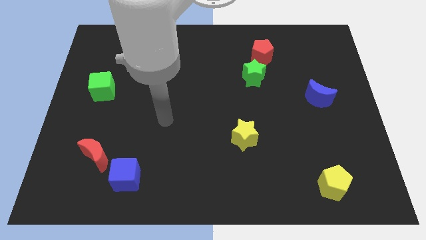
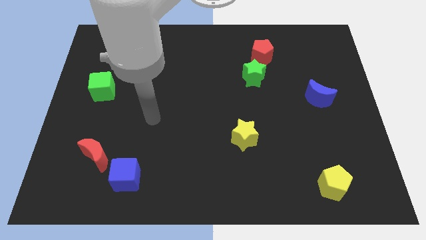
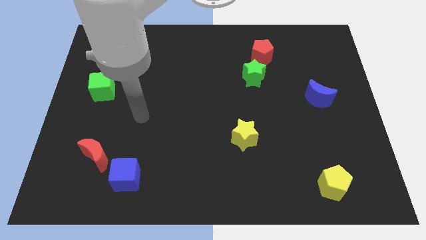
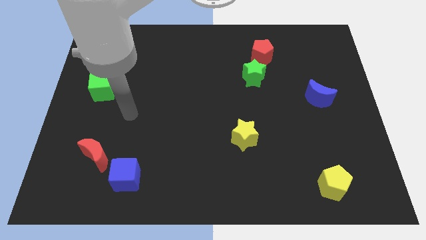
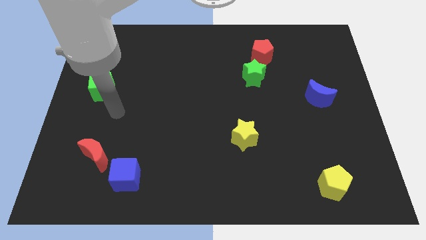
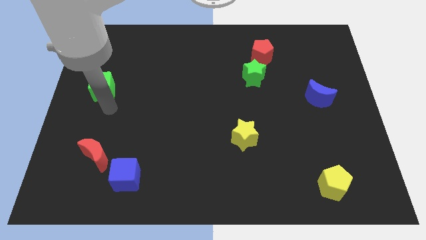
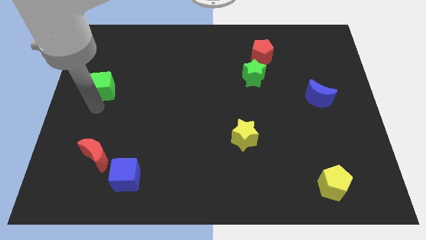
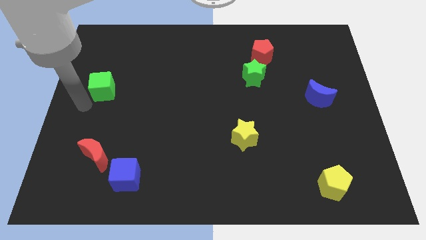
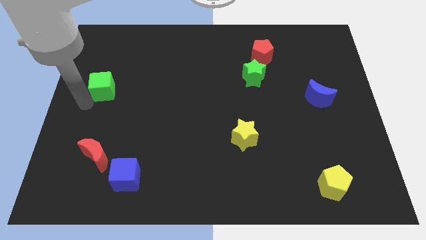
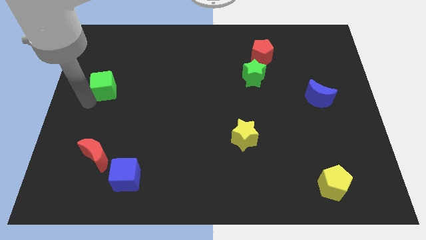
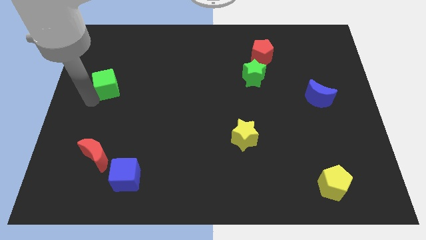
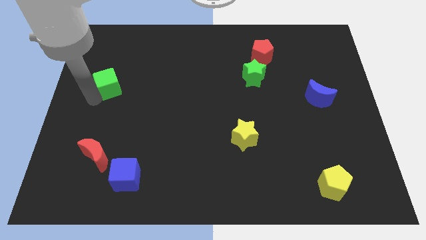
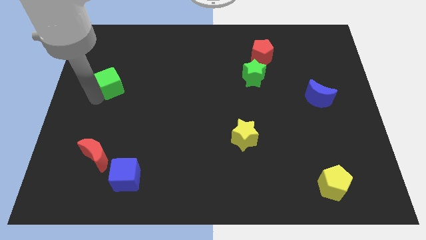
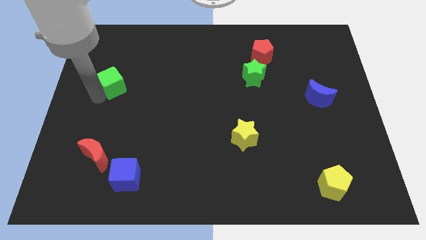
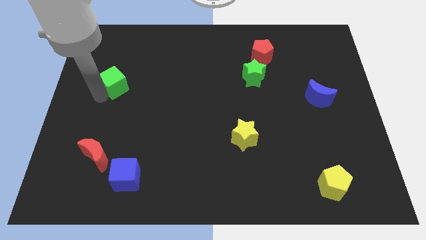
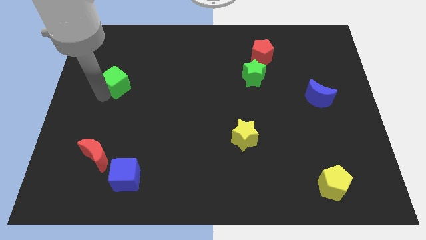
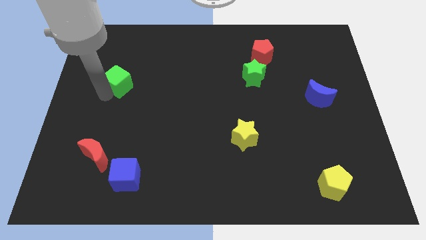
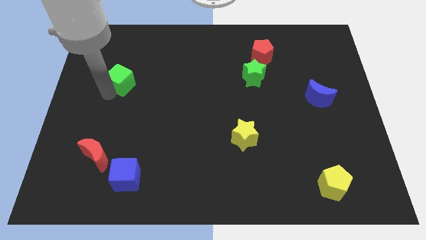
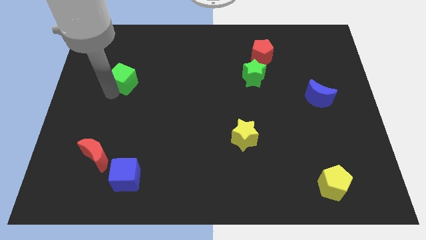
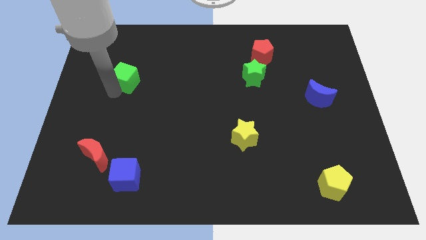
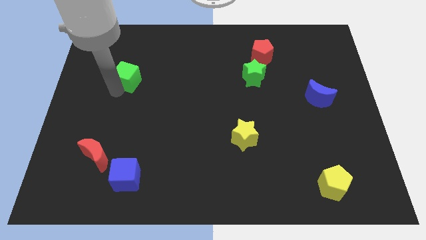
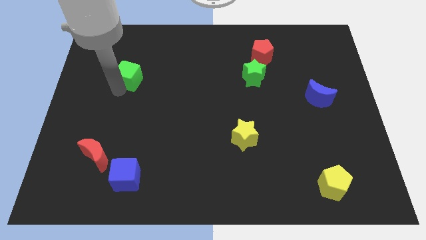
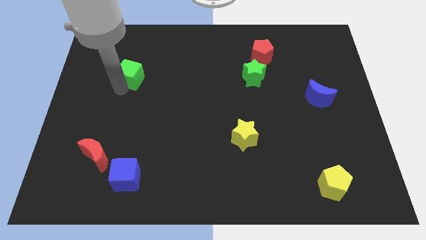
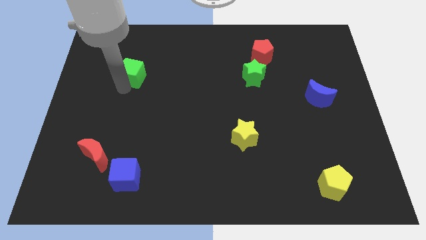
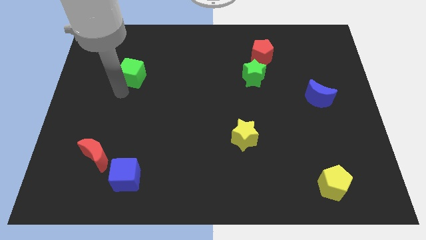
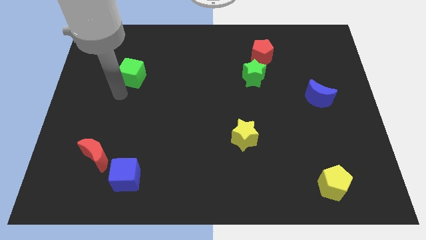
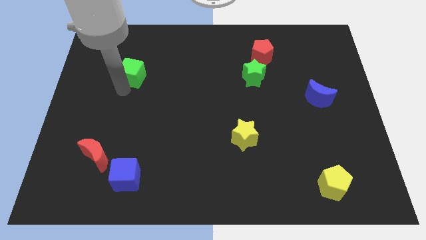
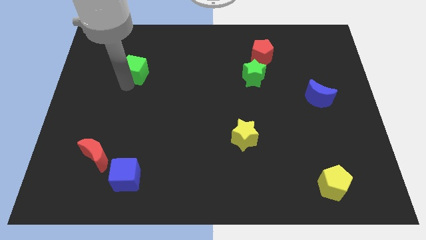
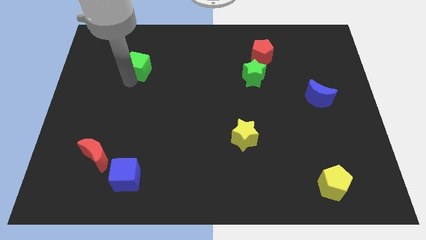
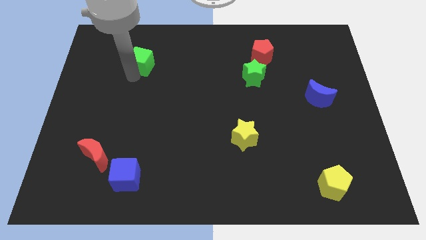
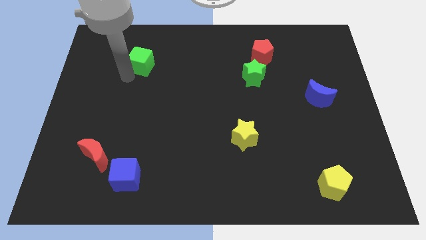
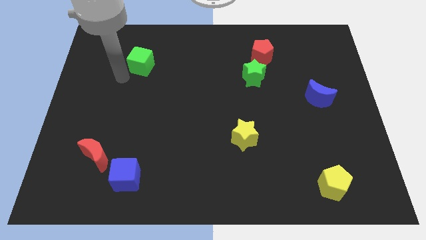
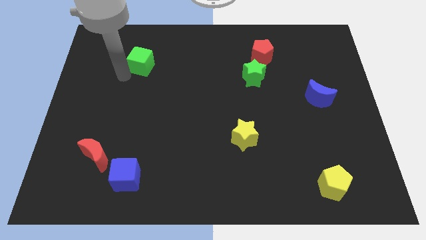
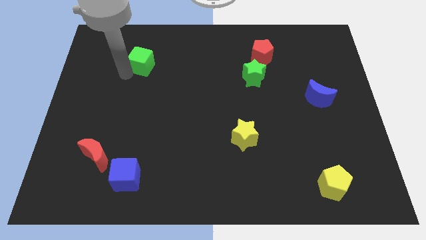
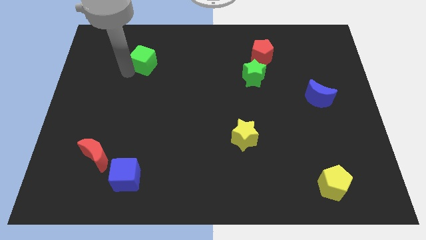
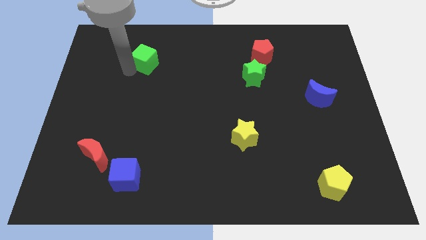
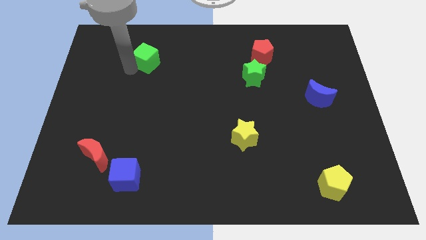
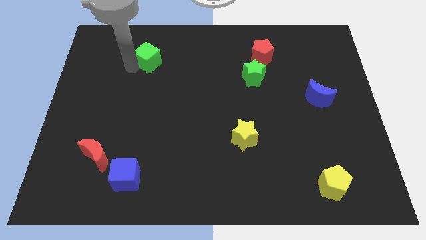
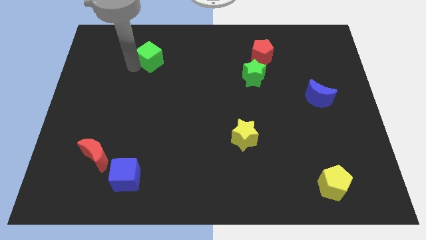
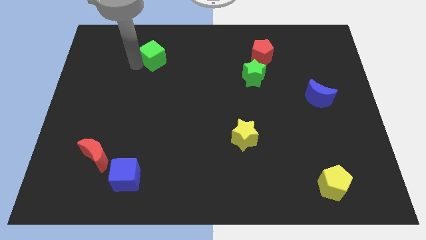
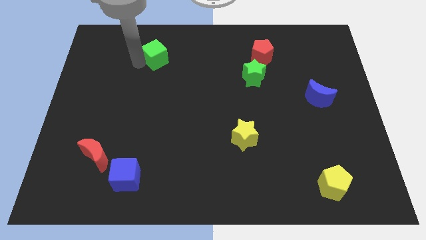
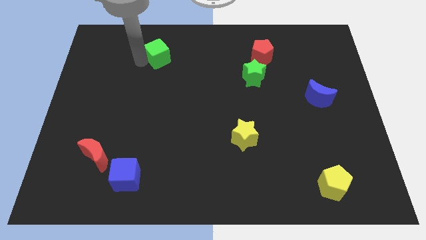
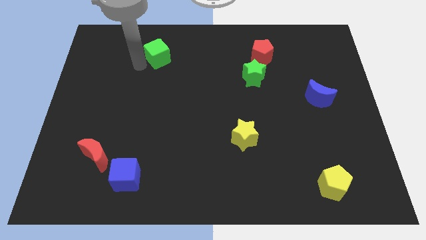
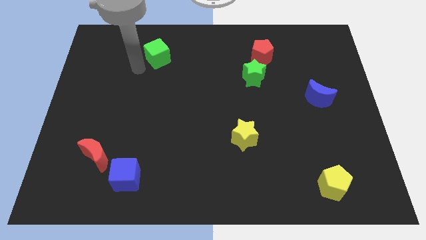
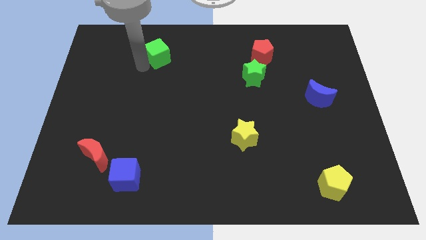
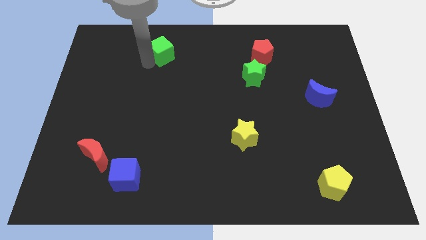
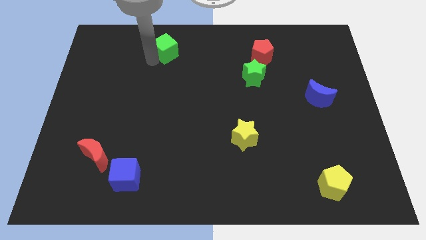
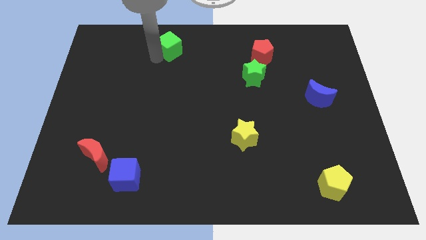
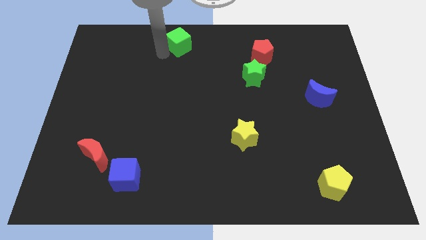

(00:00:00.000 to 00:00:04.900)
slide the green cube to the top side

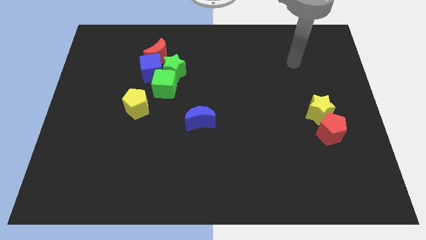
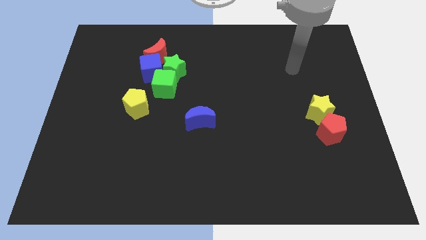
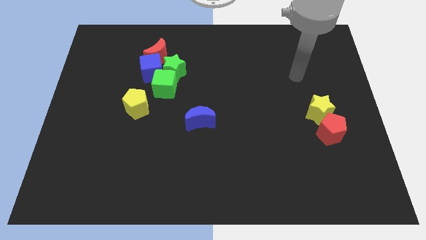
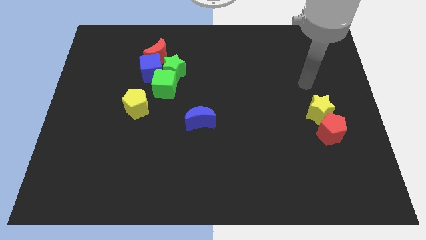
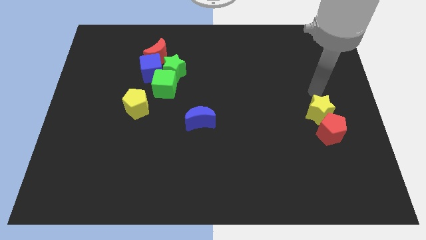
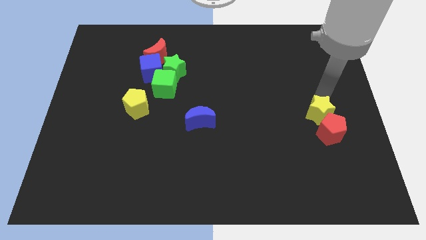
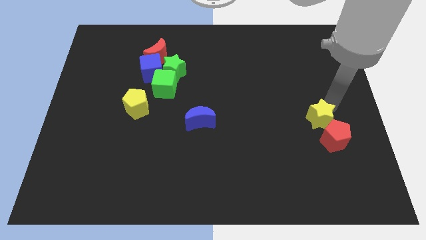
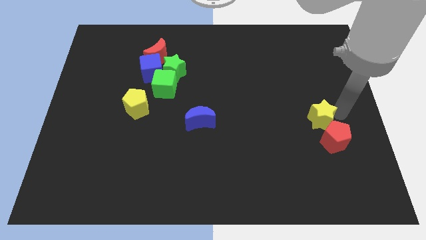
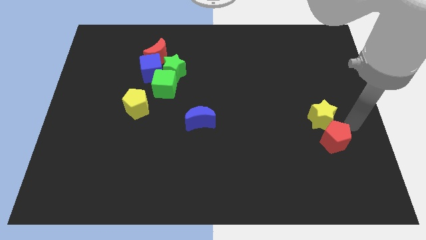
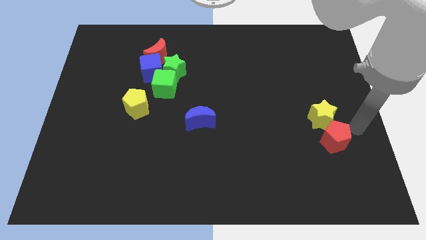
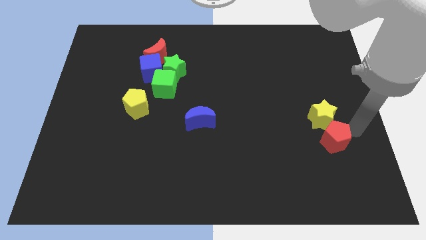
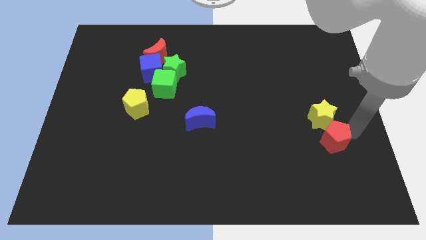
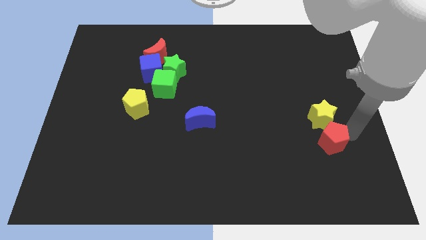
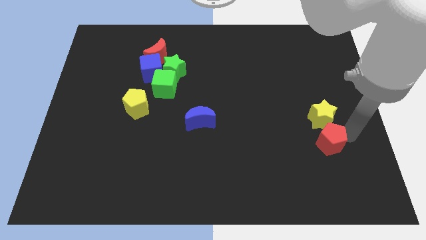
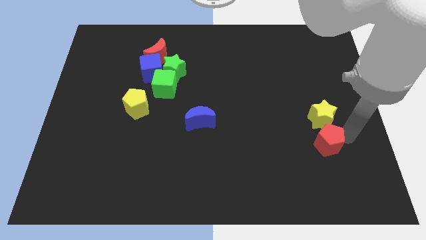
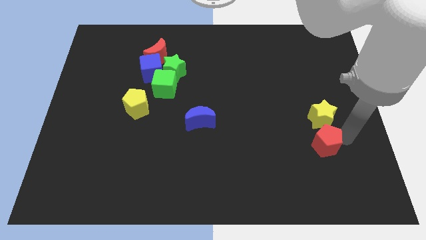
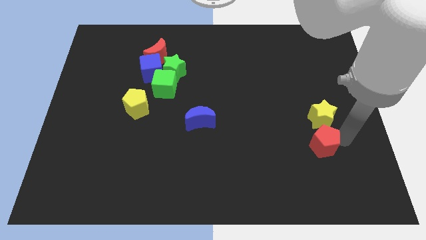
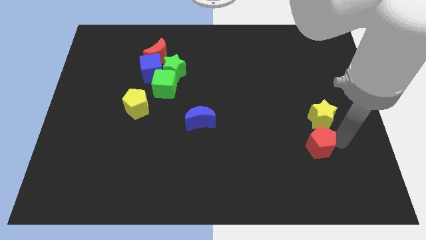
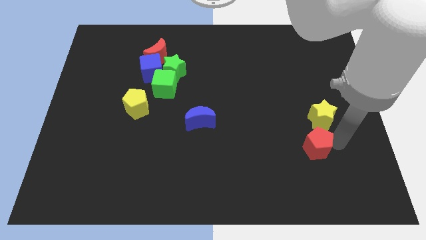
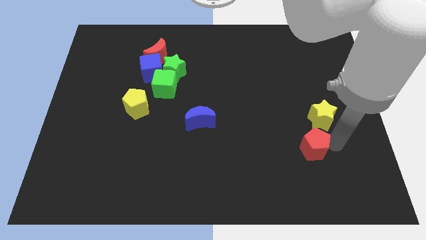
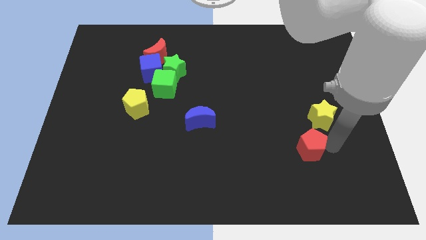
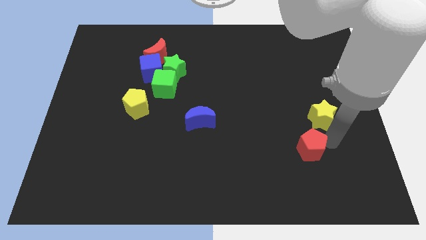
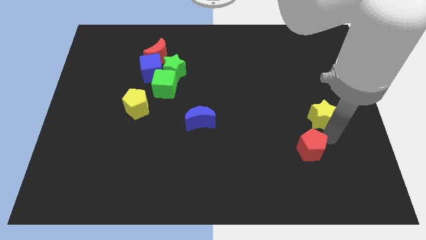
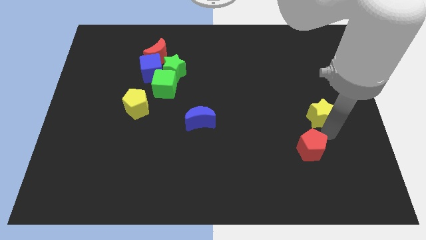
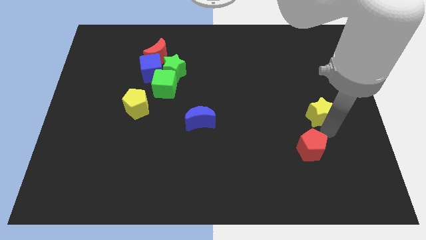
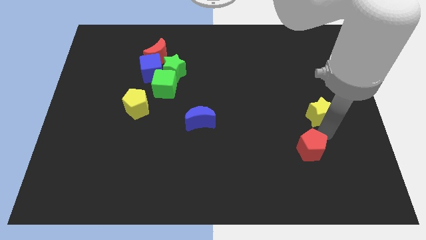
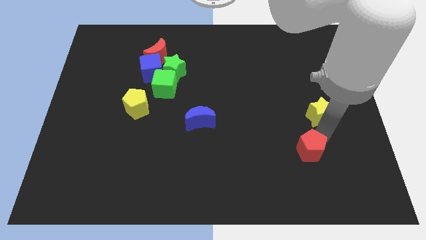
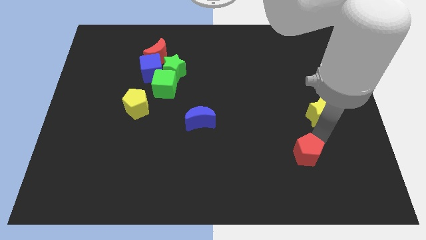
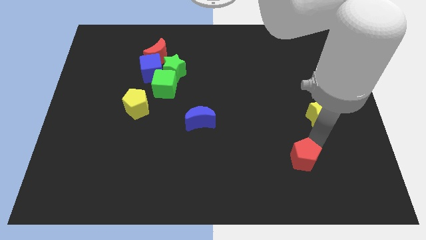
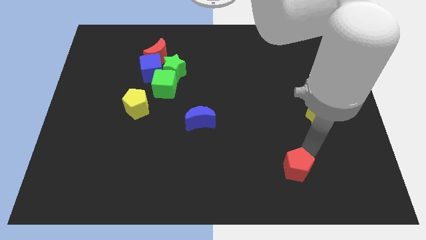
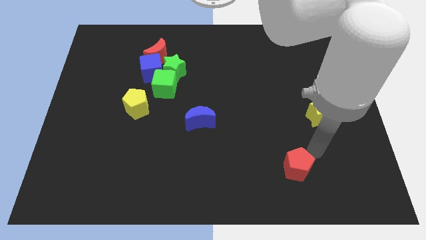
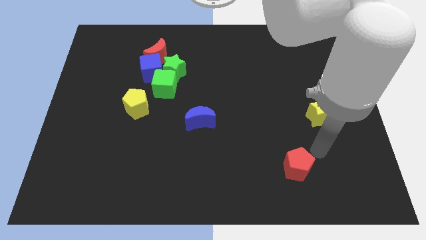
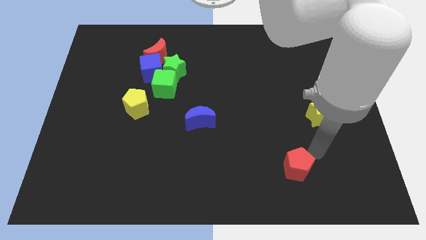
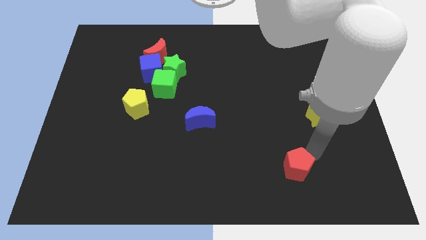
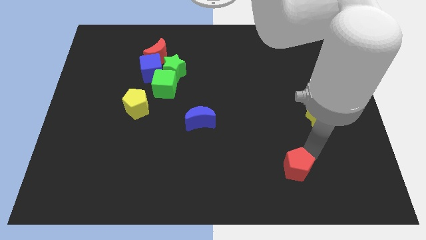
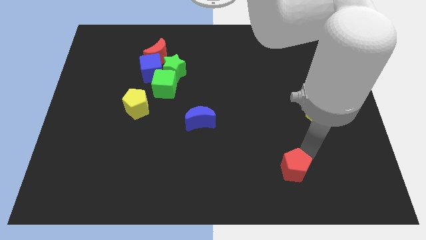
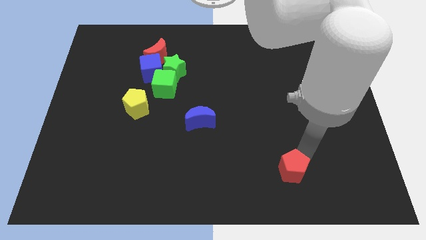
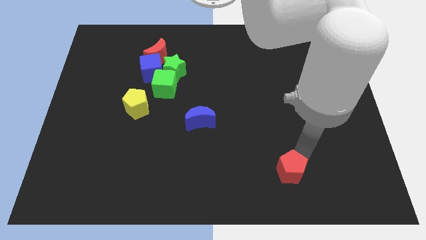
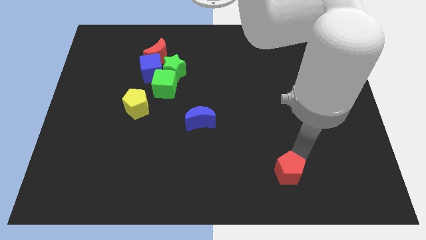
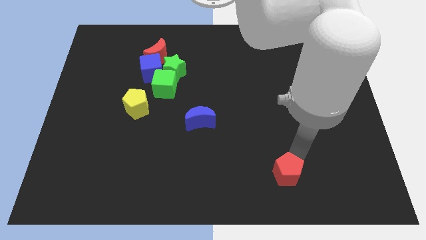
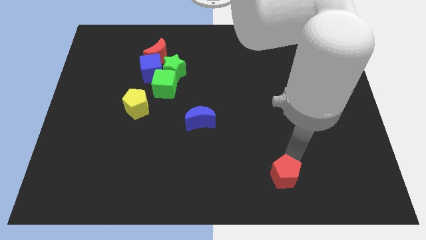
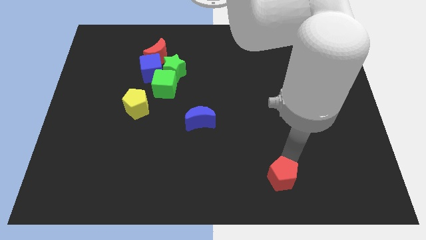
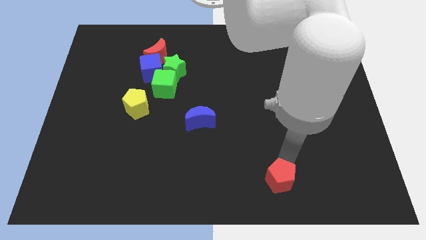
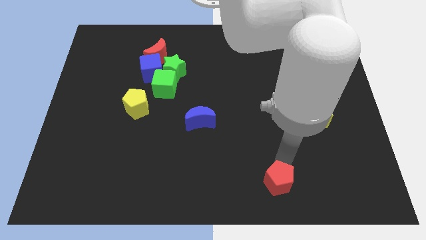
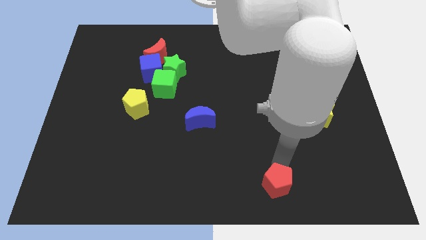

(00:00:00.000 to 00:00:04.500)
put the red pentagon to the bottom
